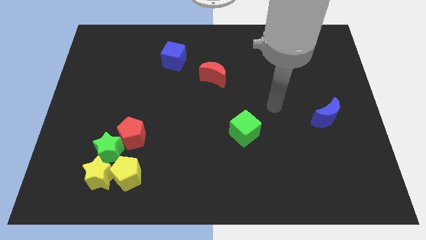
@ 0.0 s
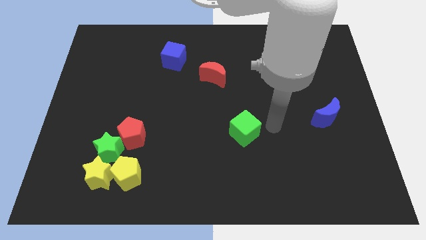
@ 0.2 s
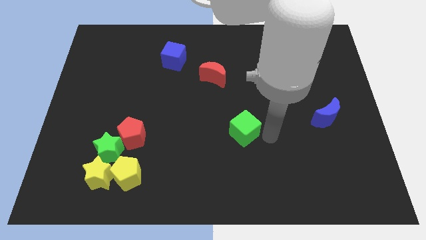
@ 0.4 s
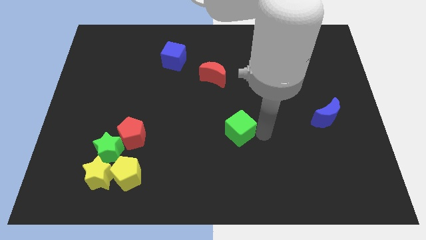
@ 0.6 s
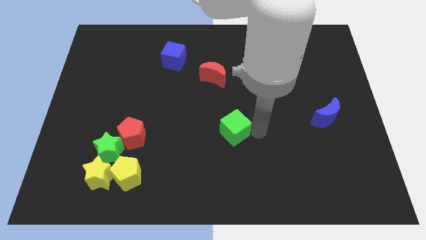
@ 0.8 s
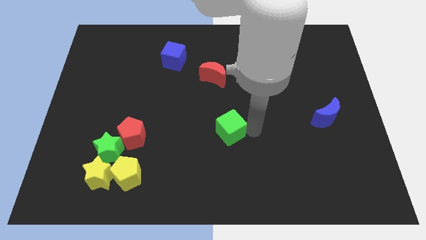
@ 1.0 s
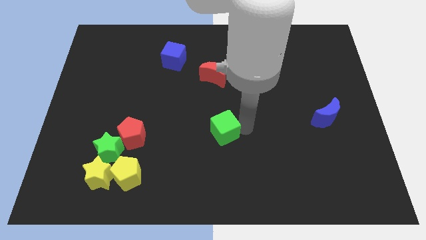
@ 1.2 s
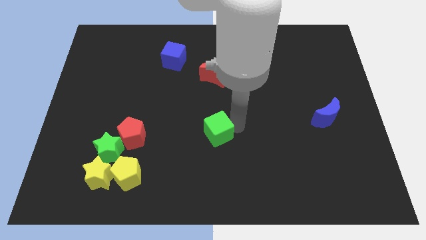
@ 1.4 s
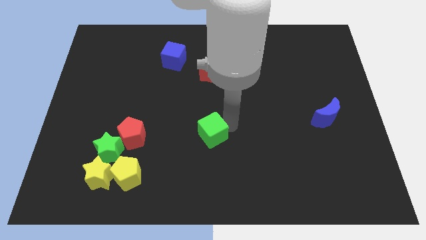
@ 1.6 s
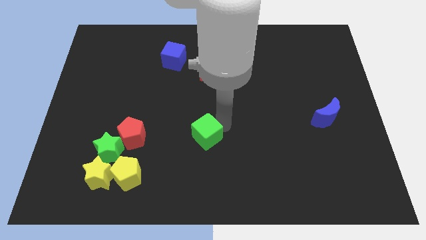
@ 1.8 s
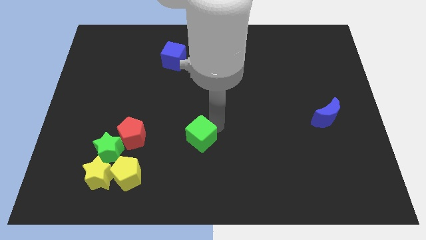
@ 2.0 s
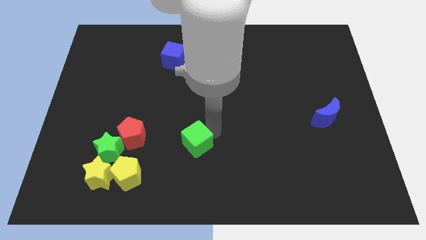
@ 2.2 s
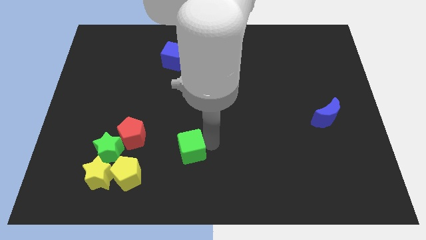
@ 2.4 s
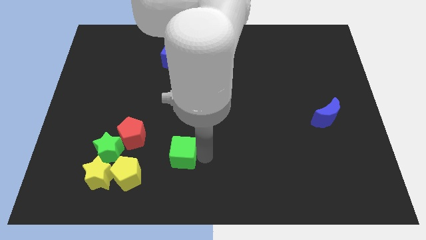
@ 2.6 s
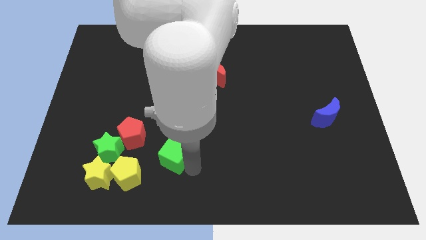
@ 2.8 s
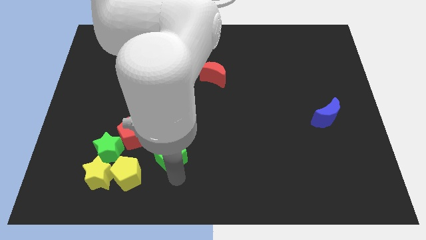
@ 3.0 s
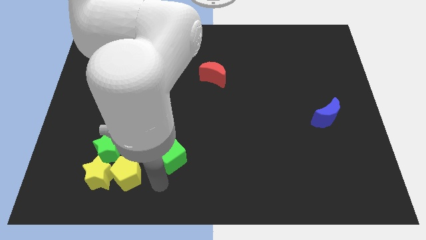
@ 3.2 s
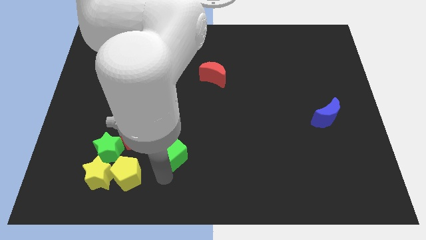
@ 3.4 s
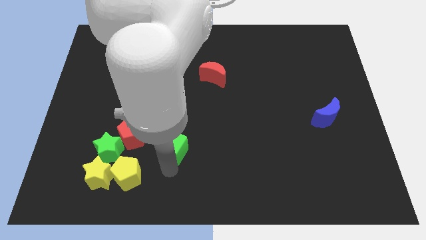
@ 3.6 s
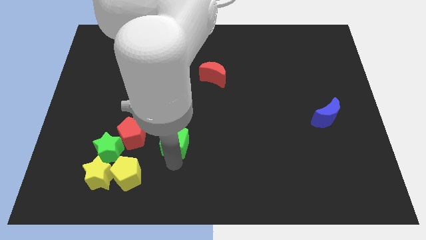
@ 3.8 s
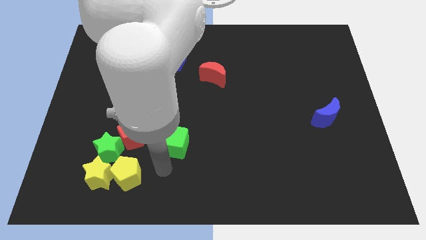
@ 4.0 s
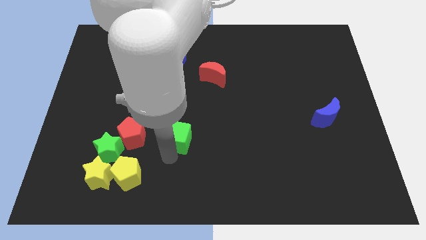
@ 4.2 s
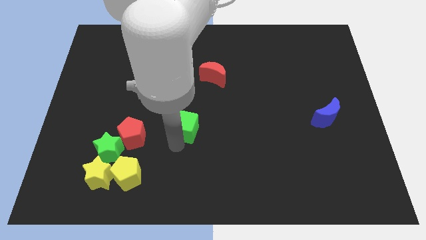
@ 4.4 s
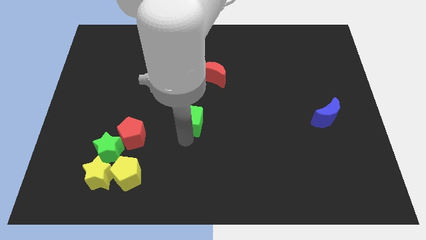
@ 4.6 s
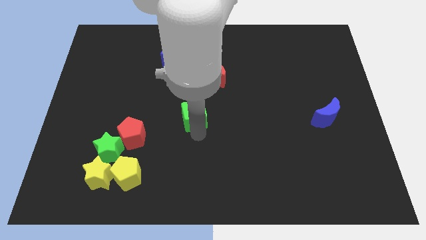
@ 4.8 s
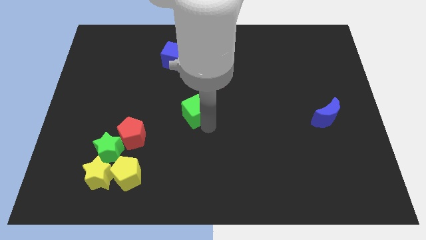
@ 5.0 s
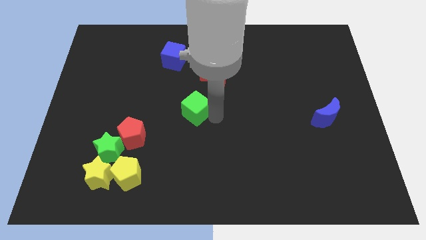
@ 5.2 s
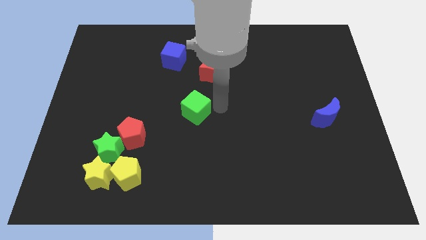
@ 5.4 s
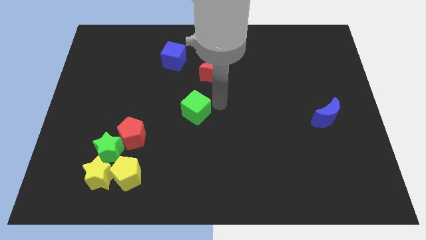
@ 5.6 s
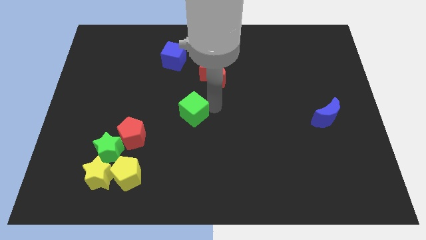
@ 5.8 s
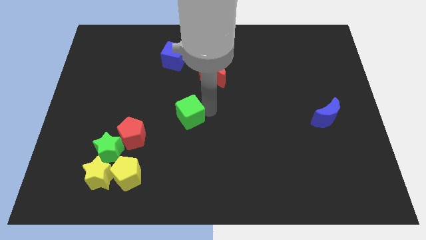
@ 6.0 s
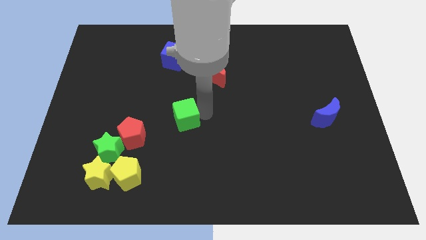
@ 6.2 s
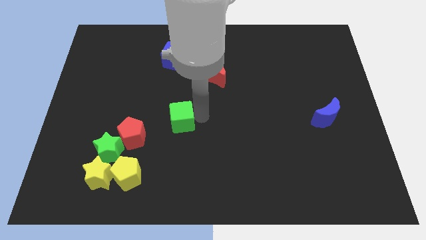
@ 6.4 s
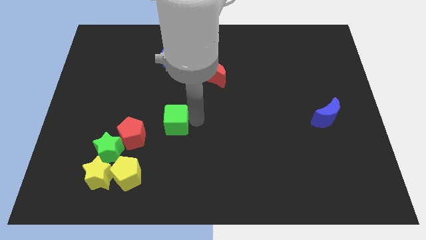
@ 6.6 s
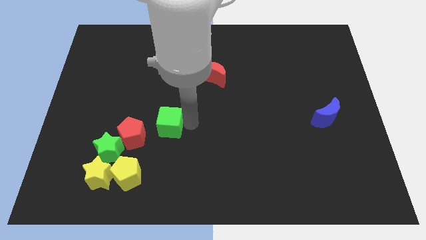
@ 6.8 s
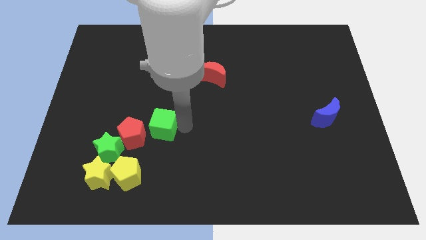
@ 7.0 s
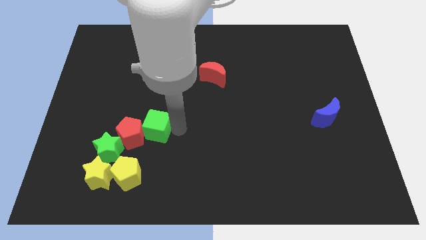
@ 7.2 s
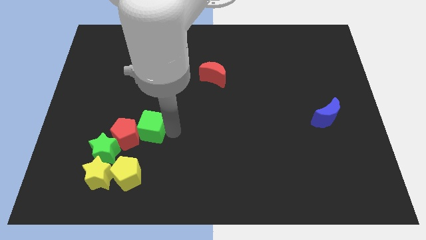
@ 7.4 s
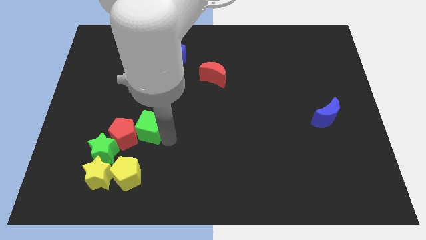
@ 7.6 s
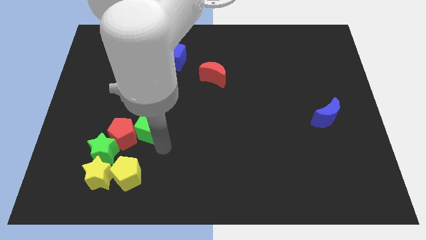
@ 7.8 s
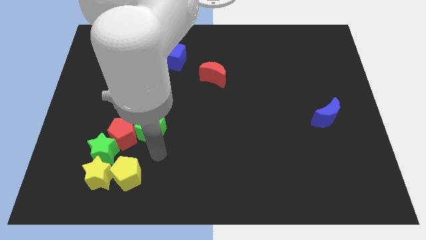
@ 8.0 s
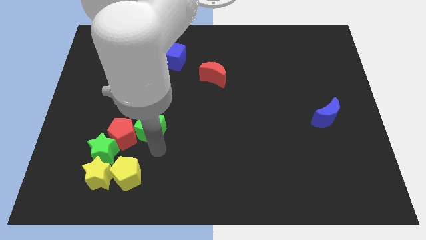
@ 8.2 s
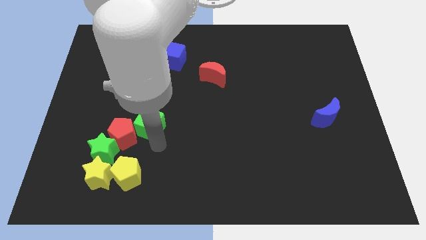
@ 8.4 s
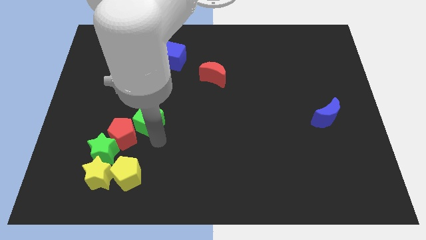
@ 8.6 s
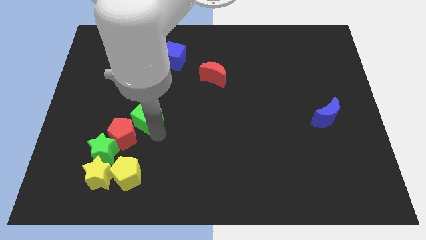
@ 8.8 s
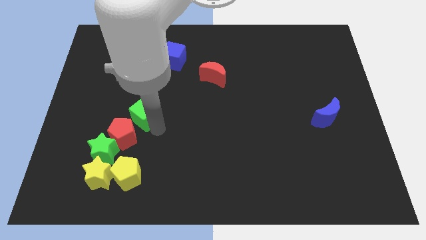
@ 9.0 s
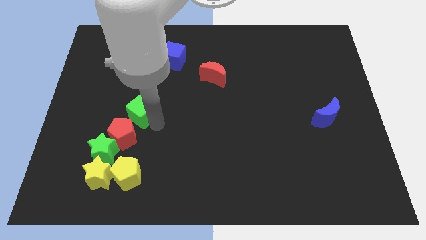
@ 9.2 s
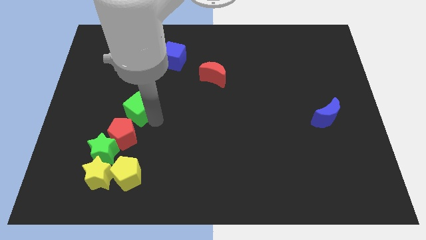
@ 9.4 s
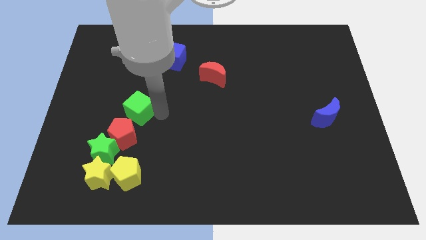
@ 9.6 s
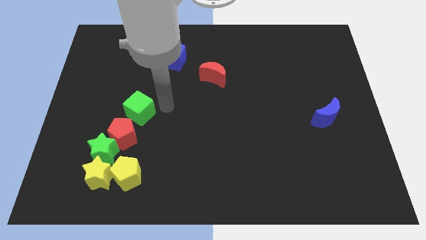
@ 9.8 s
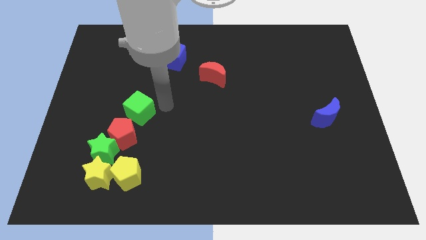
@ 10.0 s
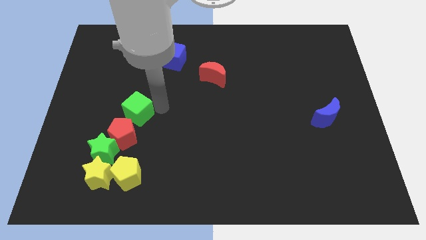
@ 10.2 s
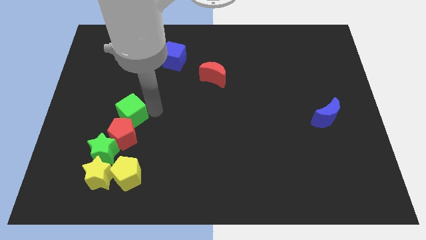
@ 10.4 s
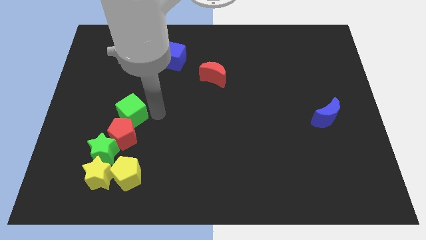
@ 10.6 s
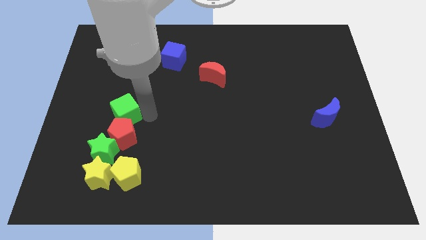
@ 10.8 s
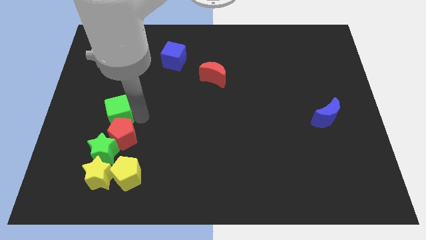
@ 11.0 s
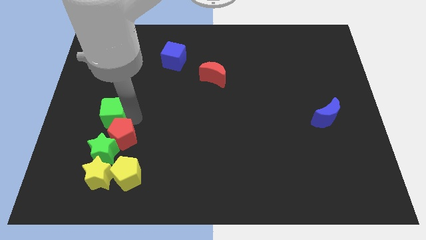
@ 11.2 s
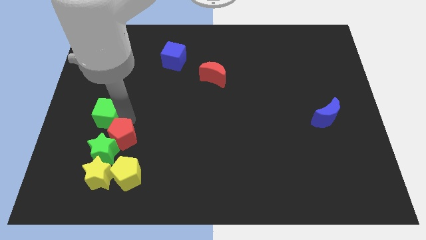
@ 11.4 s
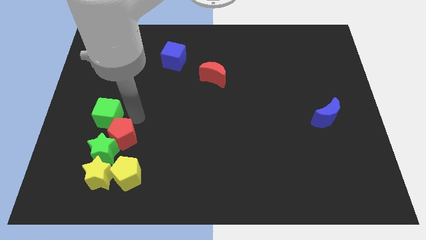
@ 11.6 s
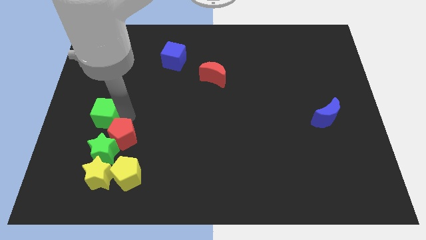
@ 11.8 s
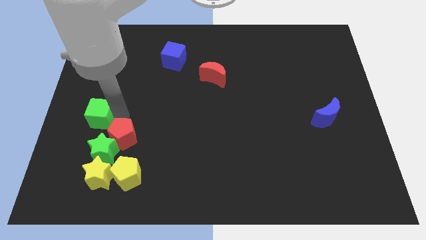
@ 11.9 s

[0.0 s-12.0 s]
slide the green cube to the left side

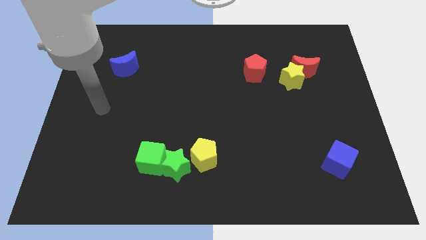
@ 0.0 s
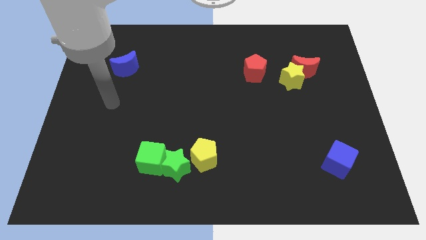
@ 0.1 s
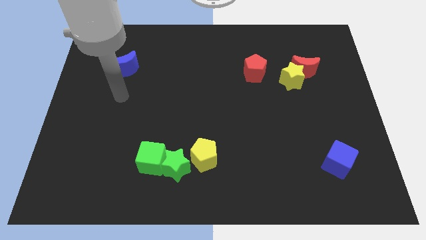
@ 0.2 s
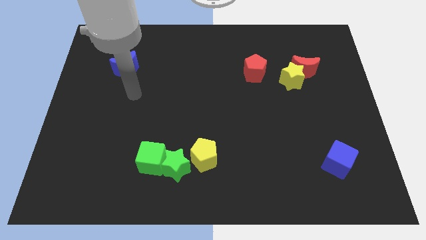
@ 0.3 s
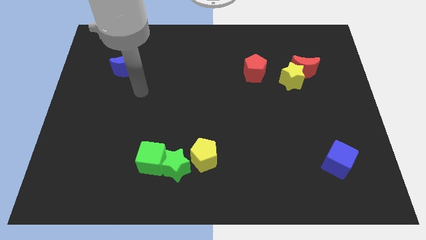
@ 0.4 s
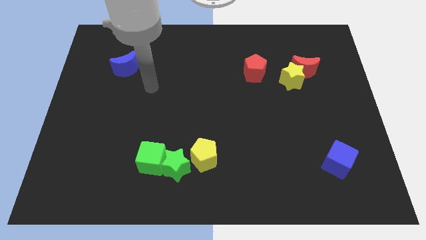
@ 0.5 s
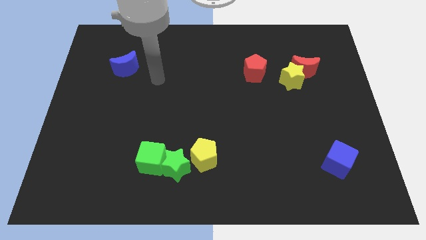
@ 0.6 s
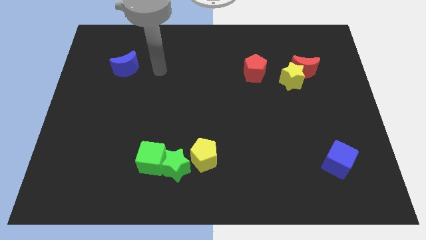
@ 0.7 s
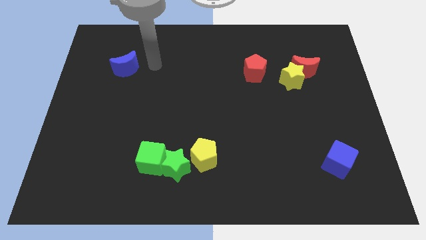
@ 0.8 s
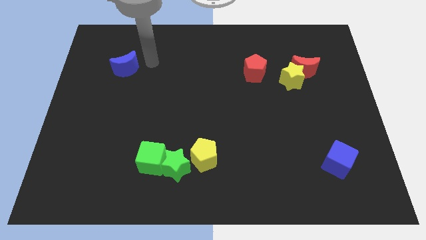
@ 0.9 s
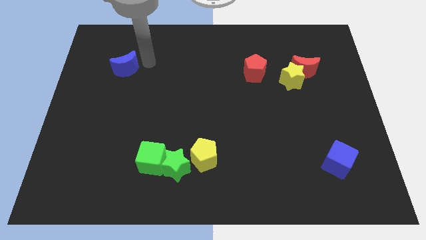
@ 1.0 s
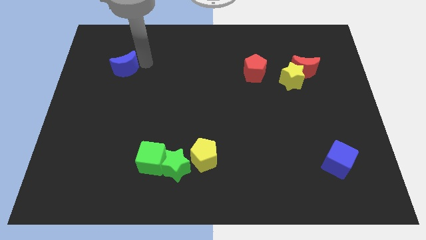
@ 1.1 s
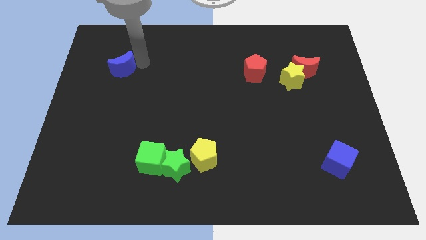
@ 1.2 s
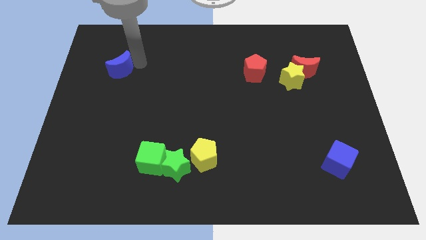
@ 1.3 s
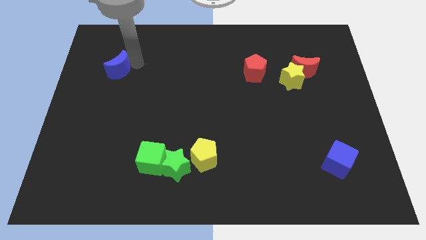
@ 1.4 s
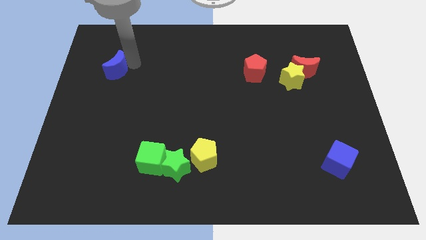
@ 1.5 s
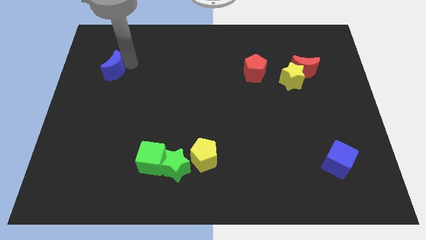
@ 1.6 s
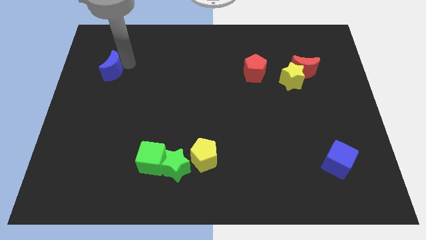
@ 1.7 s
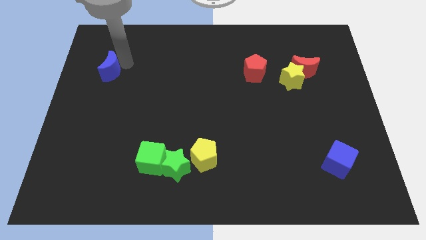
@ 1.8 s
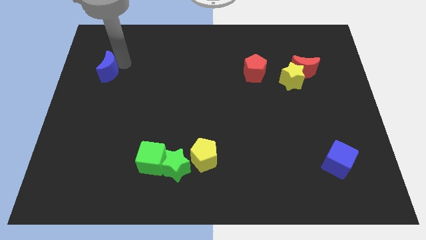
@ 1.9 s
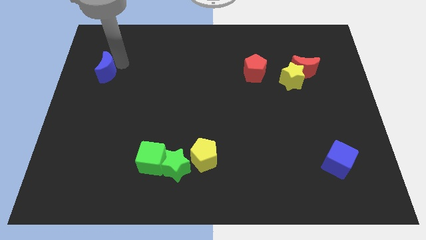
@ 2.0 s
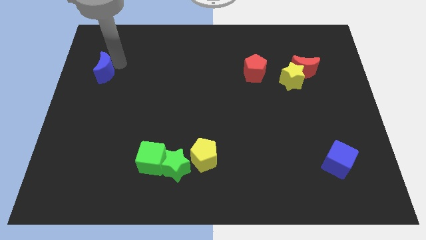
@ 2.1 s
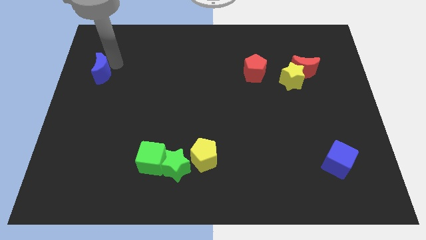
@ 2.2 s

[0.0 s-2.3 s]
push the blue moon to the center left
